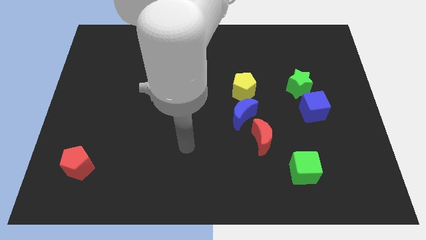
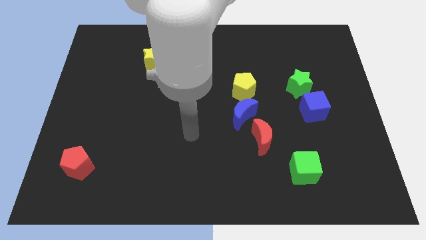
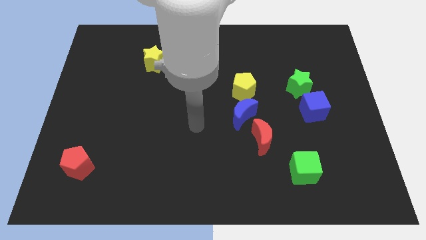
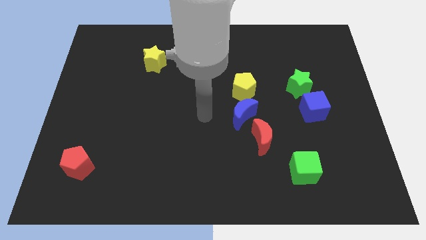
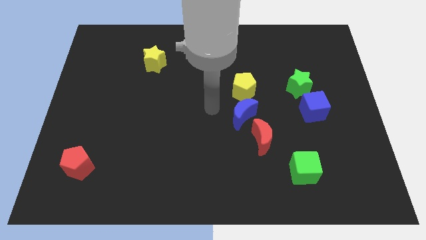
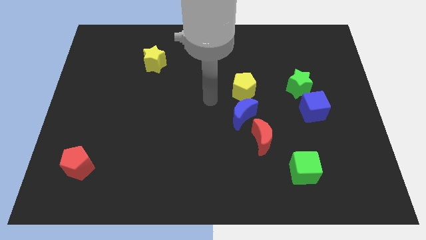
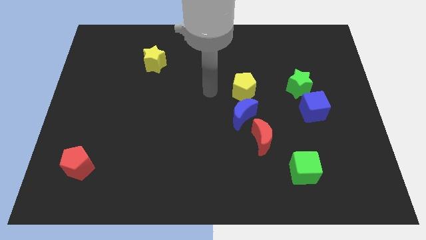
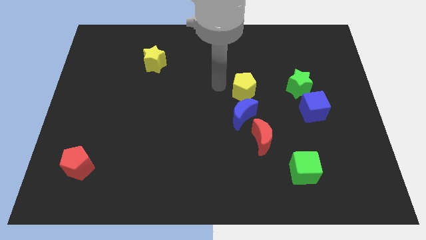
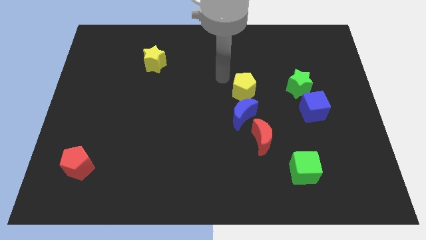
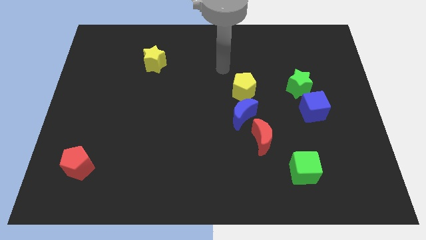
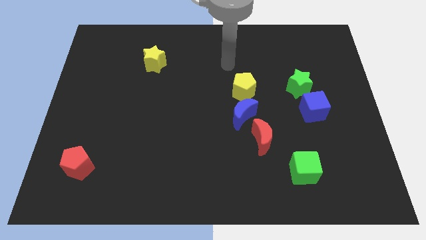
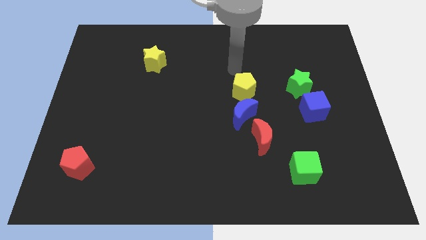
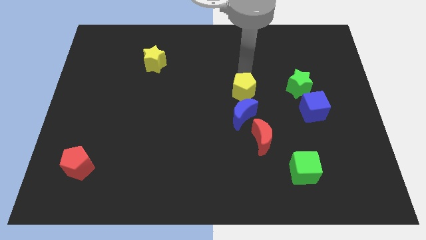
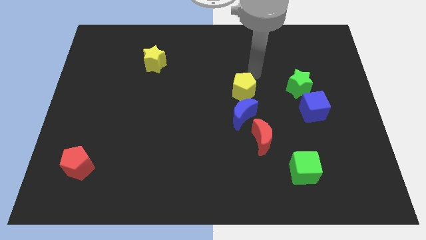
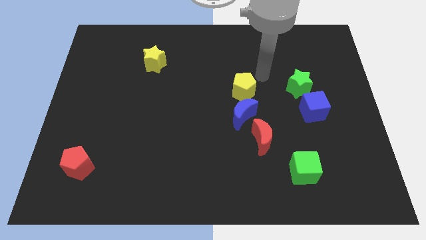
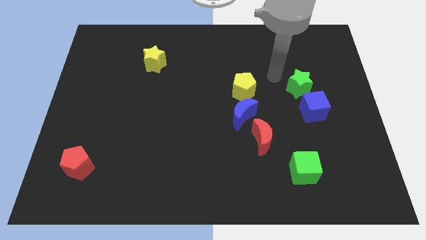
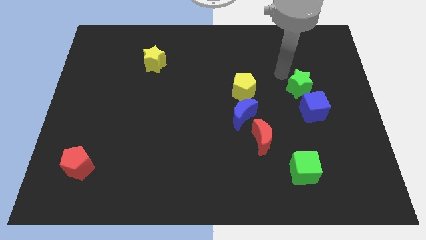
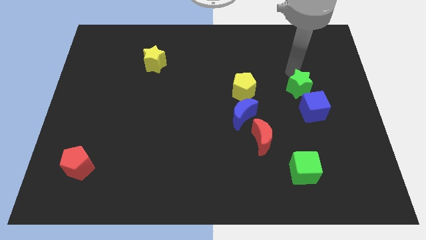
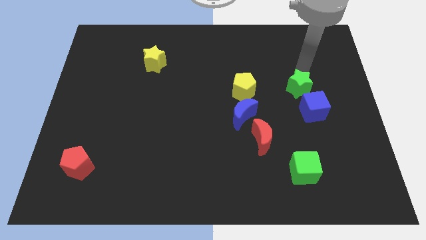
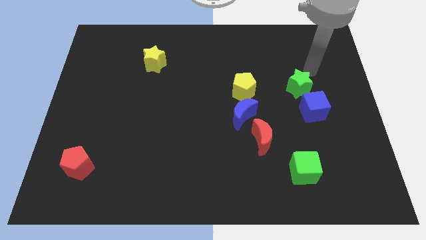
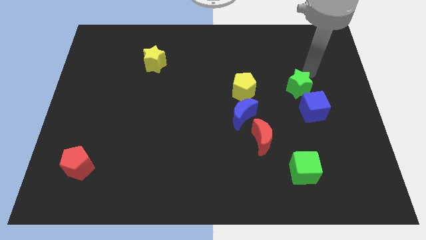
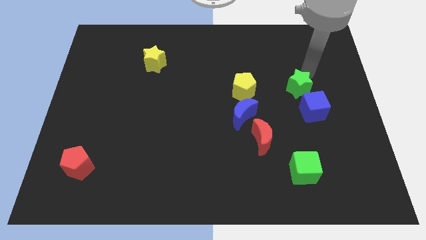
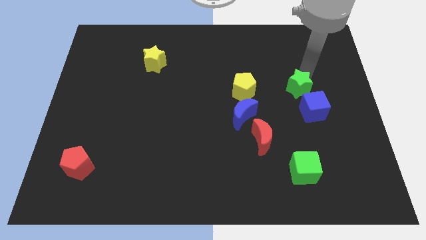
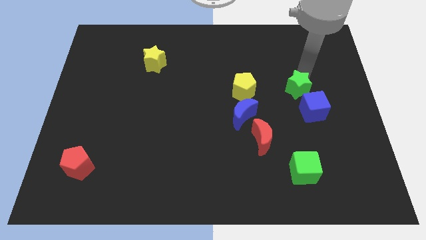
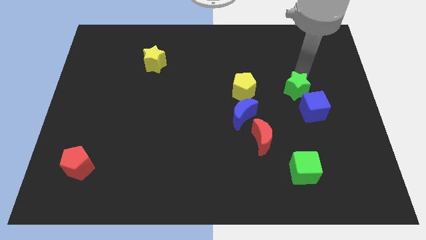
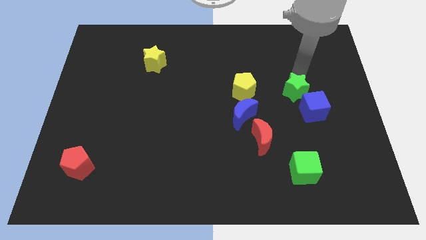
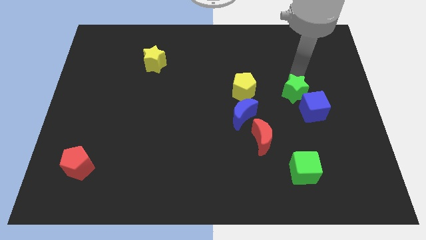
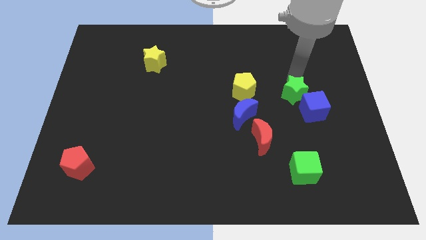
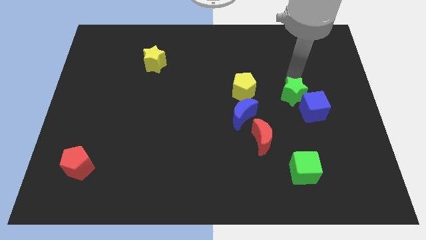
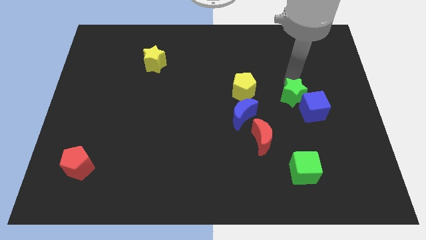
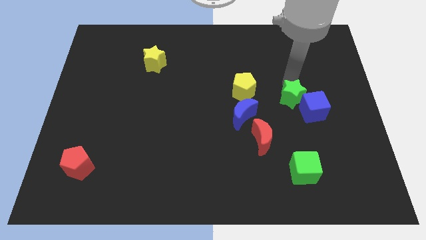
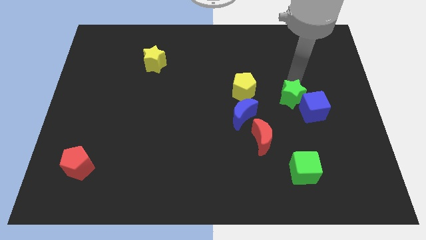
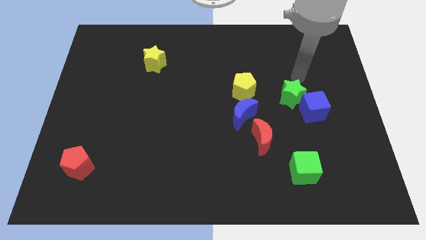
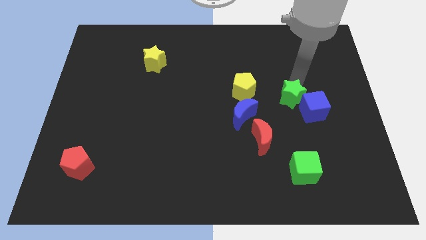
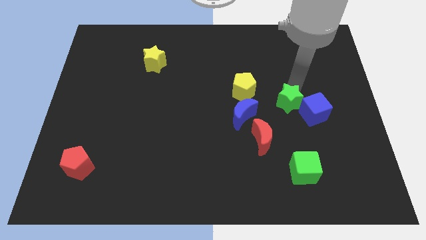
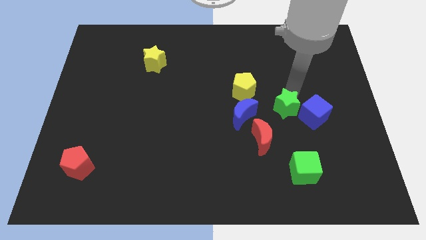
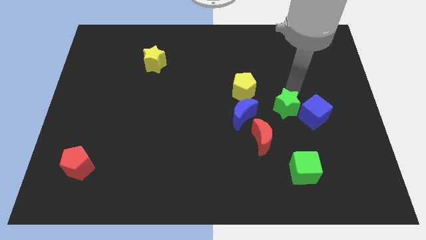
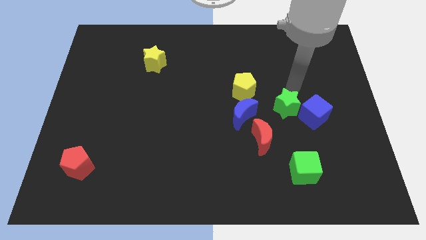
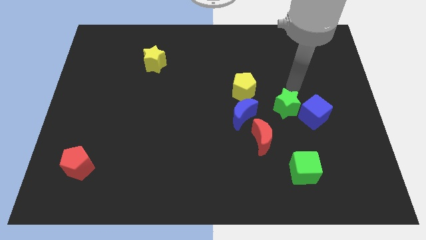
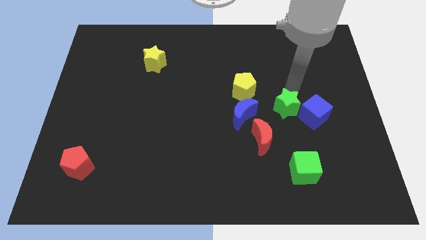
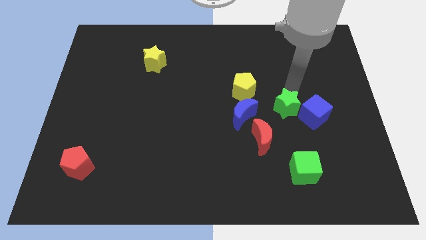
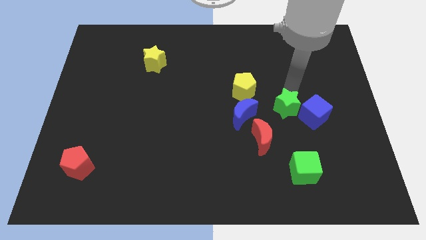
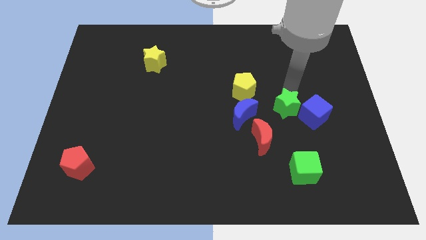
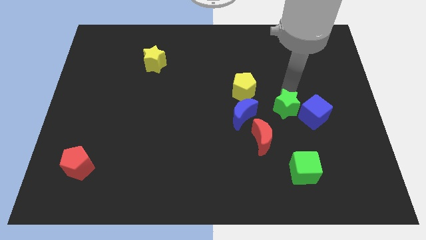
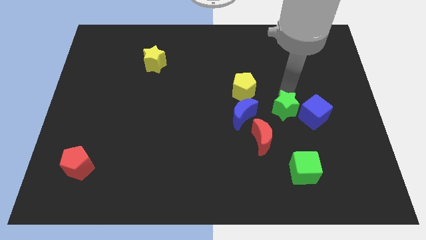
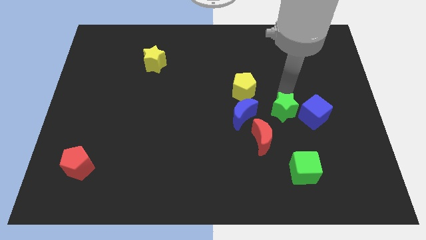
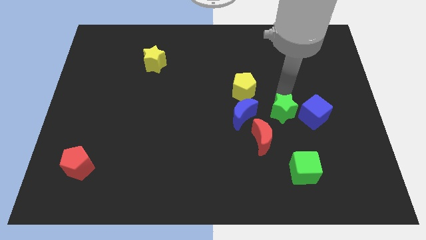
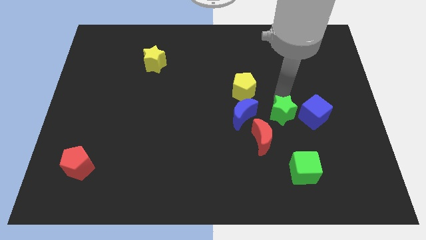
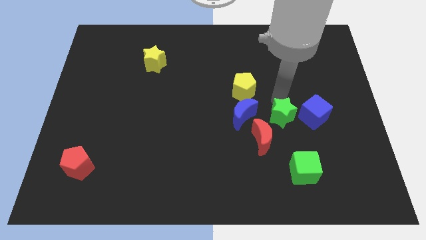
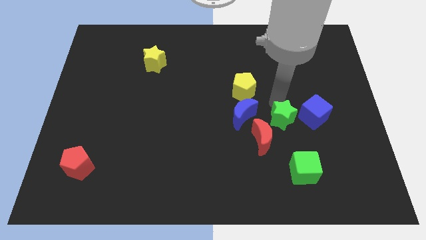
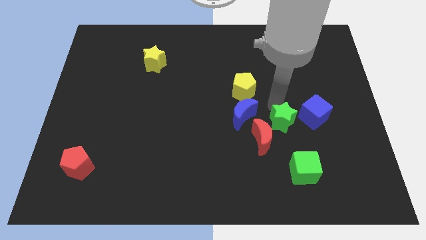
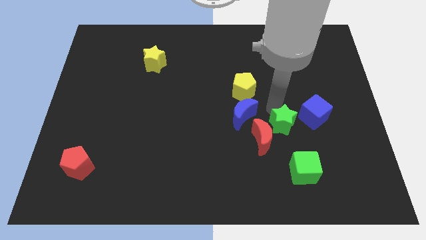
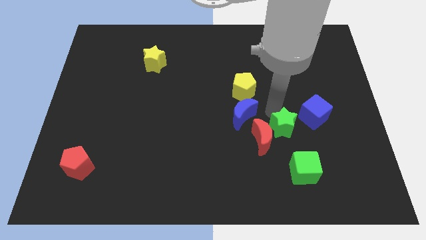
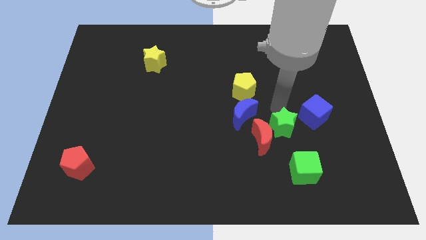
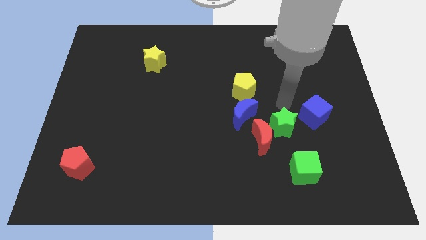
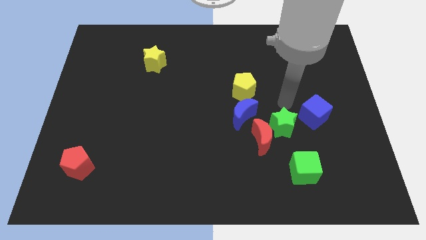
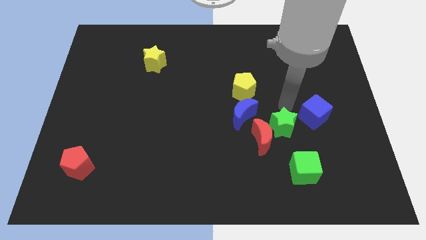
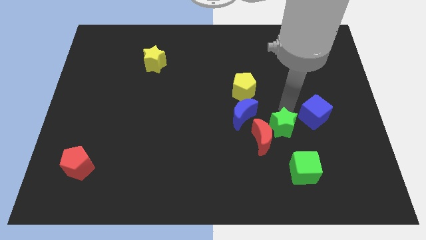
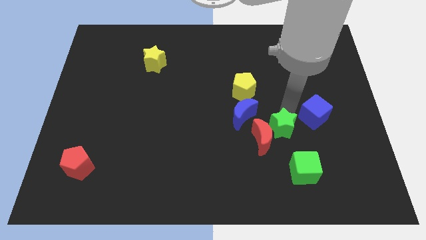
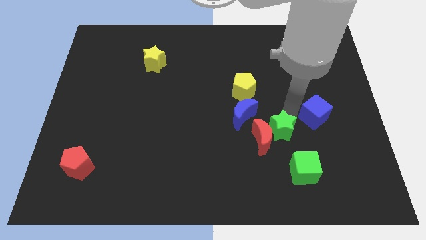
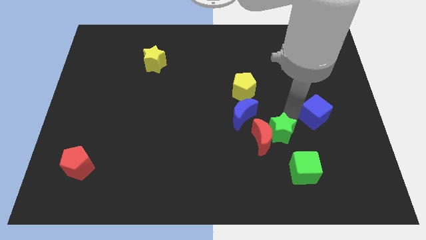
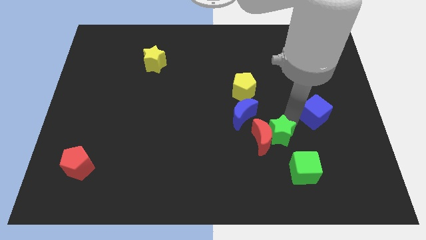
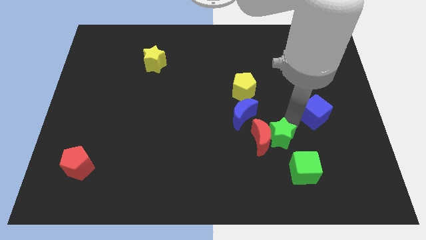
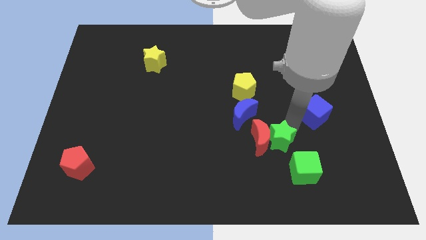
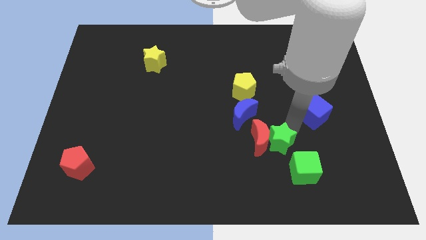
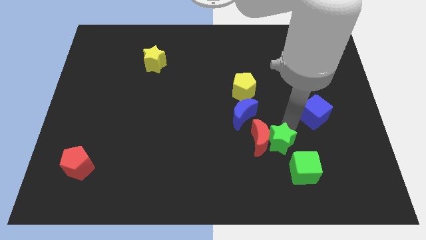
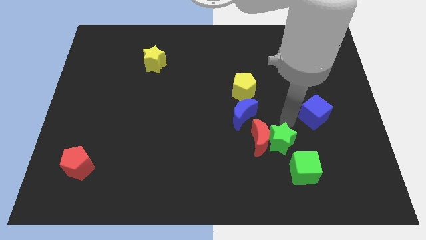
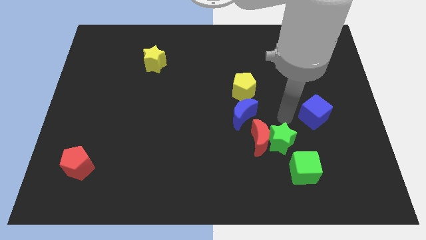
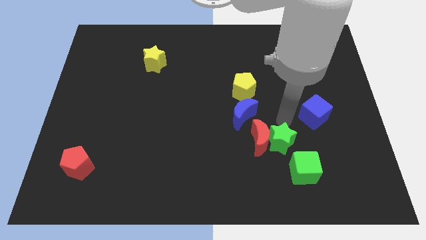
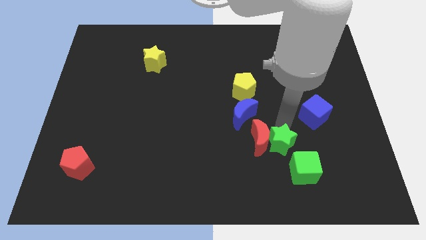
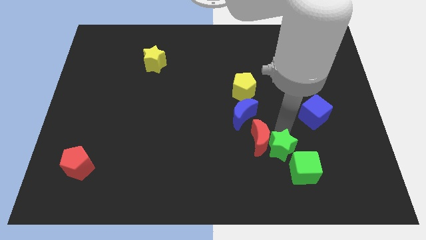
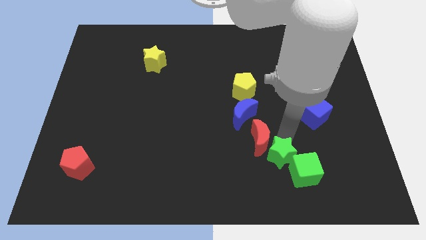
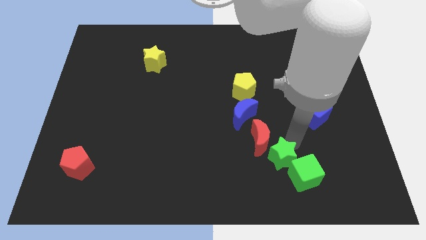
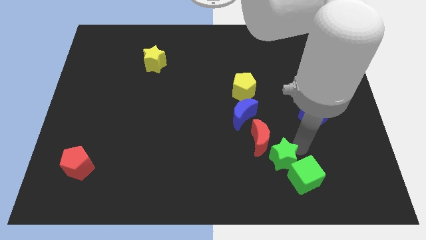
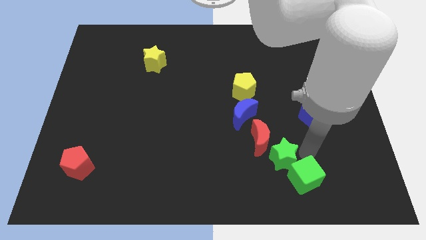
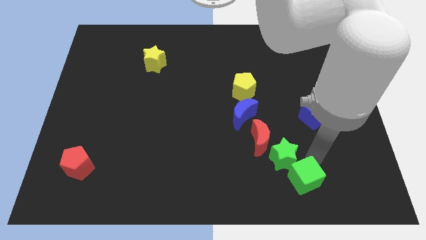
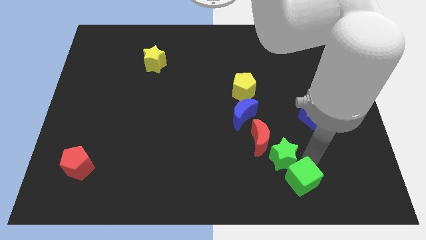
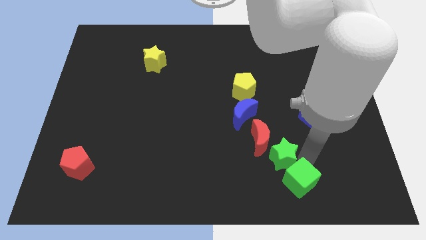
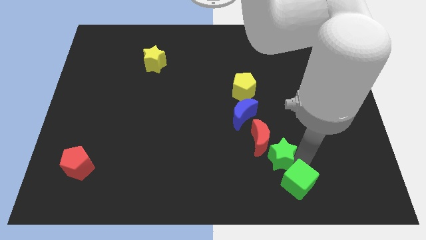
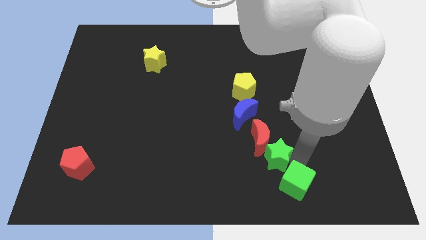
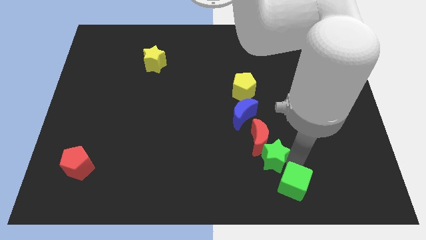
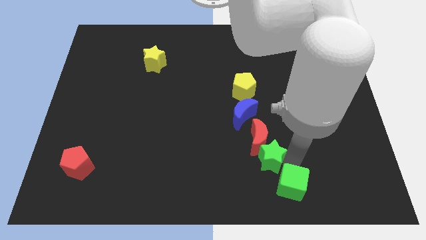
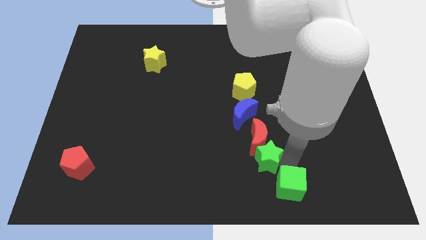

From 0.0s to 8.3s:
push the green star to the bottom side of the blue moon

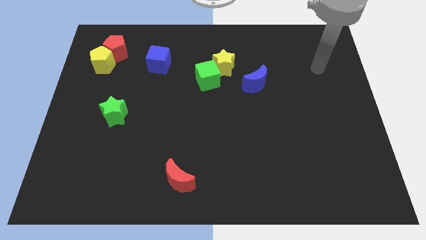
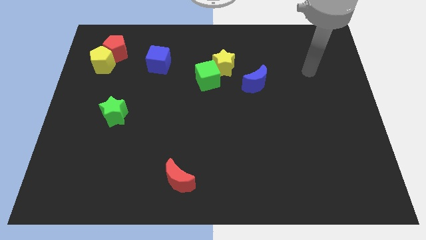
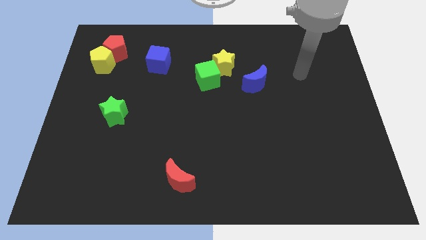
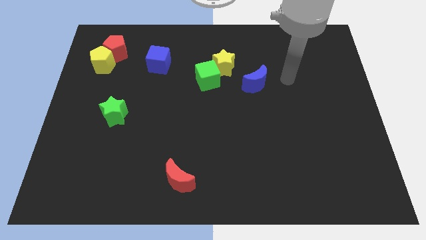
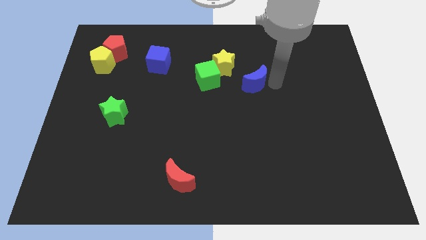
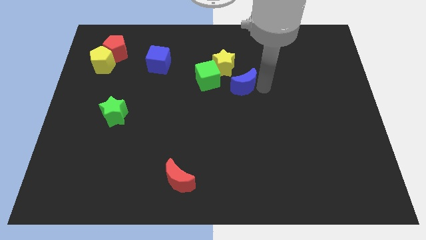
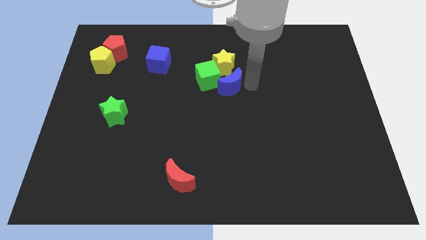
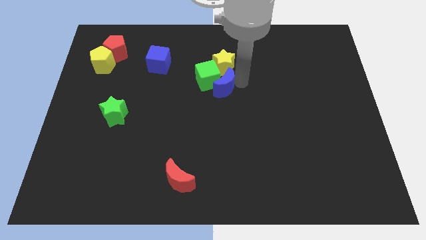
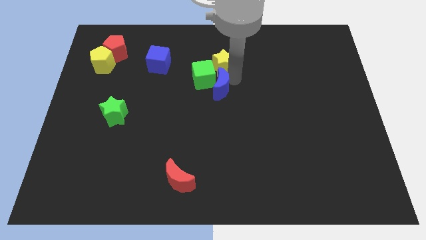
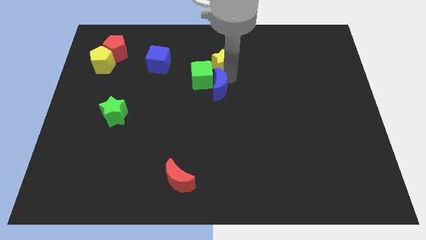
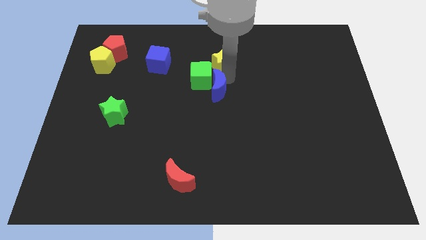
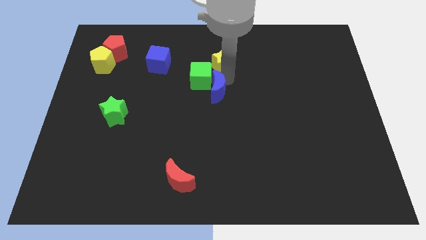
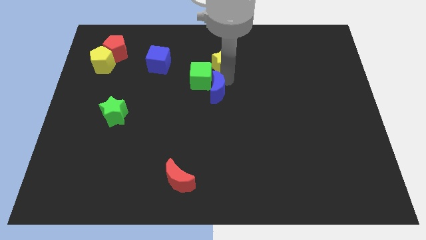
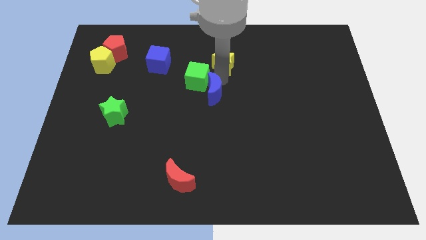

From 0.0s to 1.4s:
move the green cube diagonally down and to the right of the blue cube
